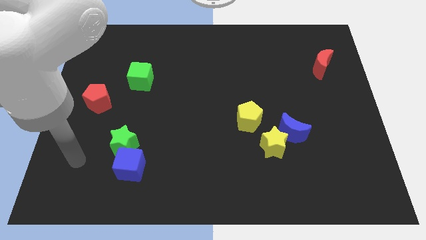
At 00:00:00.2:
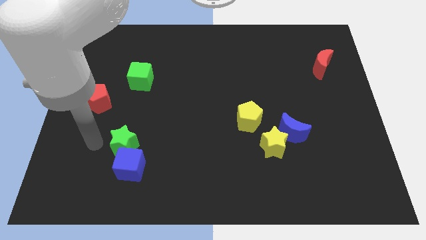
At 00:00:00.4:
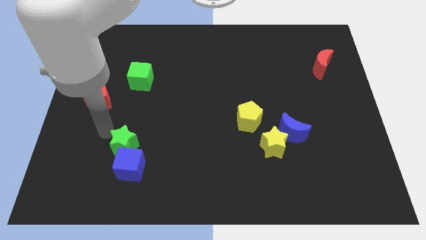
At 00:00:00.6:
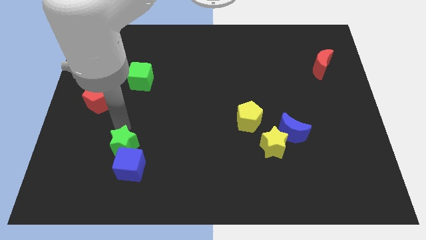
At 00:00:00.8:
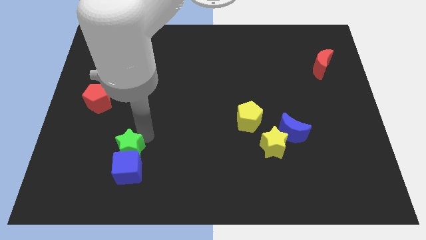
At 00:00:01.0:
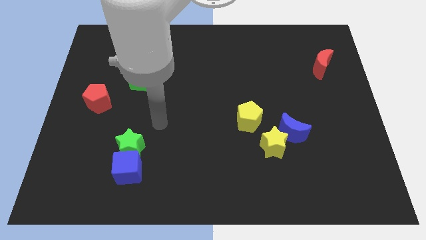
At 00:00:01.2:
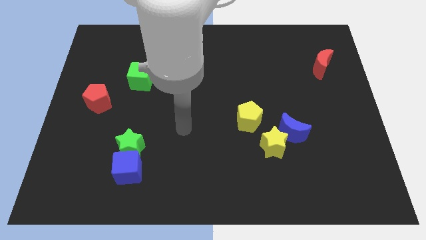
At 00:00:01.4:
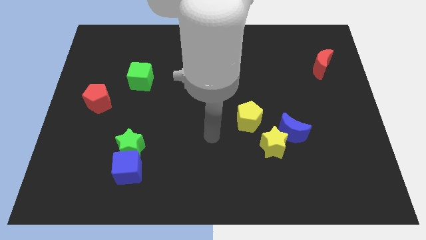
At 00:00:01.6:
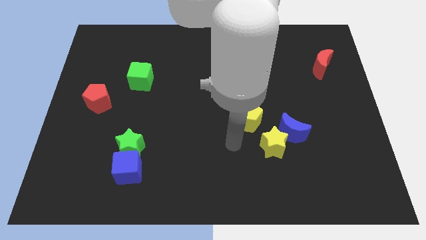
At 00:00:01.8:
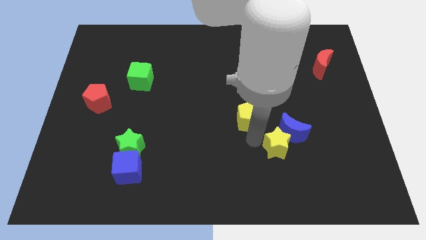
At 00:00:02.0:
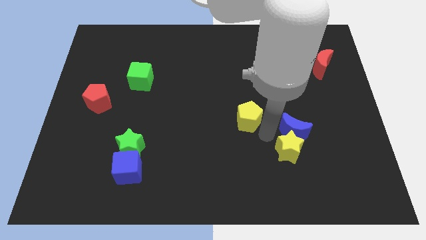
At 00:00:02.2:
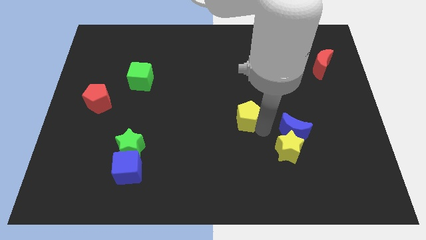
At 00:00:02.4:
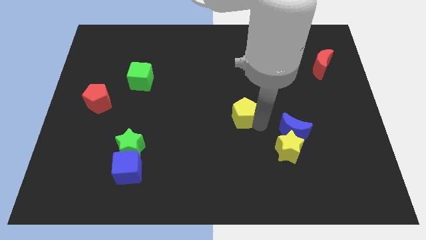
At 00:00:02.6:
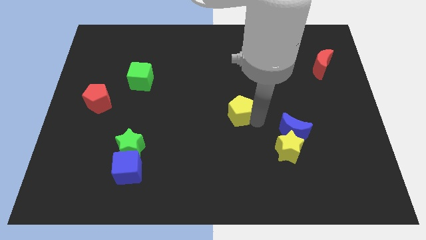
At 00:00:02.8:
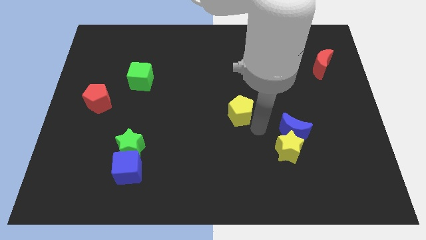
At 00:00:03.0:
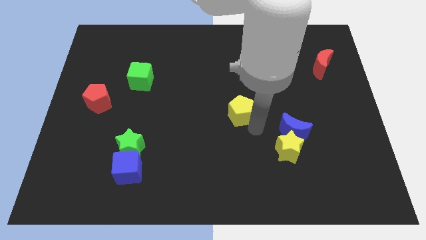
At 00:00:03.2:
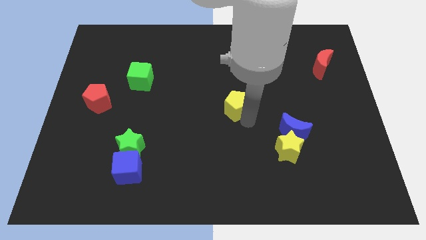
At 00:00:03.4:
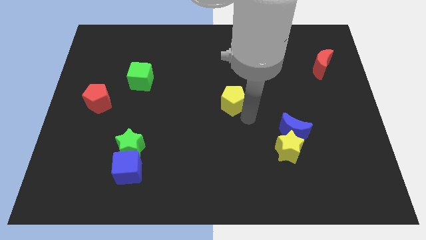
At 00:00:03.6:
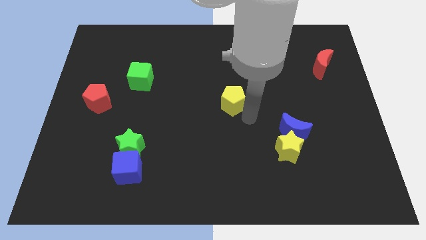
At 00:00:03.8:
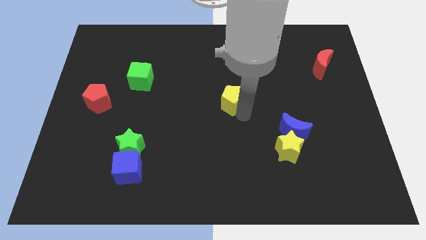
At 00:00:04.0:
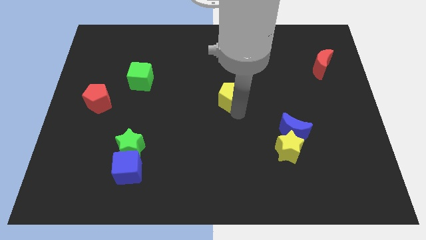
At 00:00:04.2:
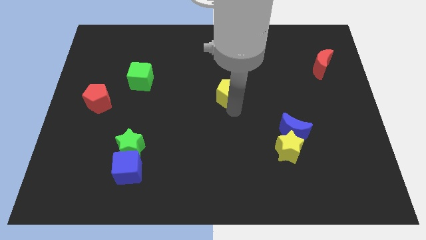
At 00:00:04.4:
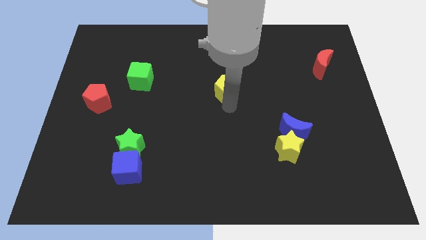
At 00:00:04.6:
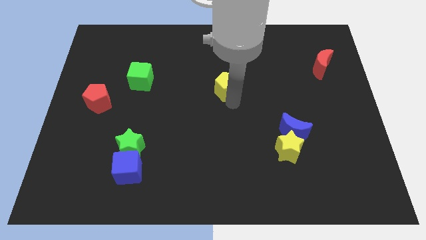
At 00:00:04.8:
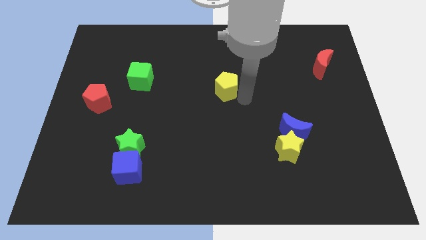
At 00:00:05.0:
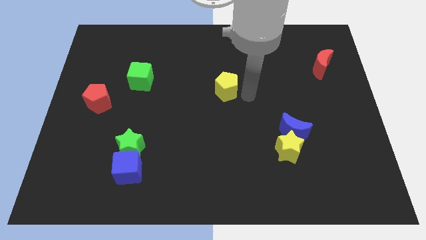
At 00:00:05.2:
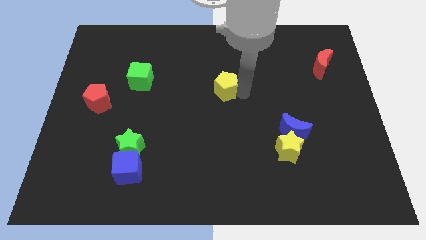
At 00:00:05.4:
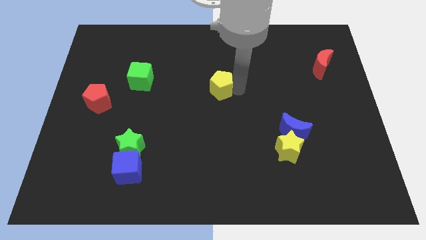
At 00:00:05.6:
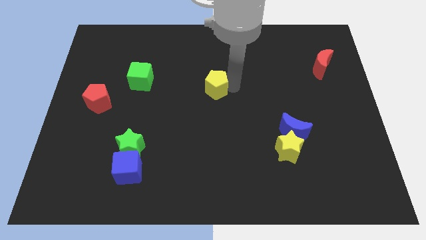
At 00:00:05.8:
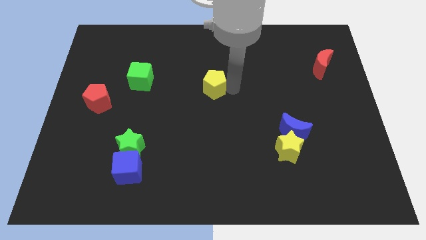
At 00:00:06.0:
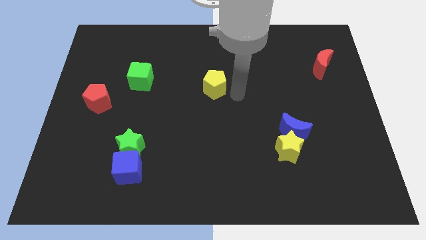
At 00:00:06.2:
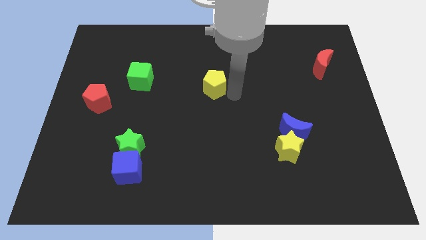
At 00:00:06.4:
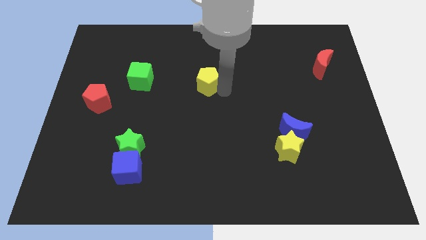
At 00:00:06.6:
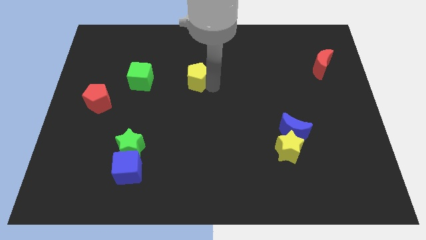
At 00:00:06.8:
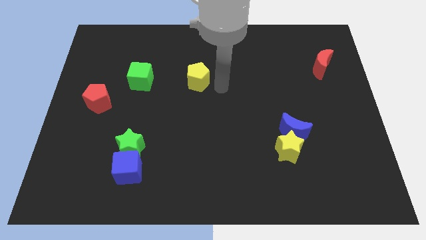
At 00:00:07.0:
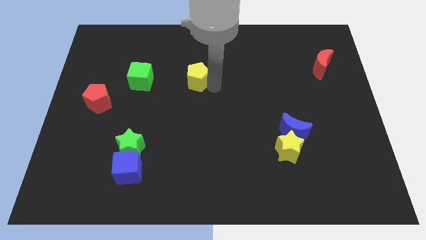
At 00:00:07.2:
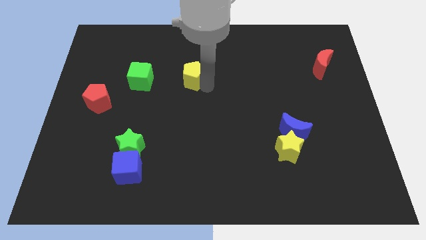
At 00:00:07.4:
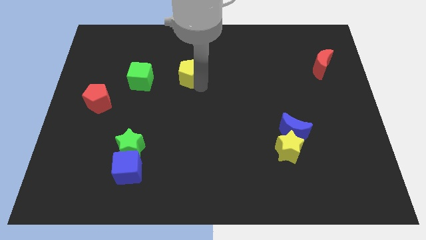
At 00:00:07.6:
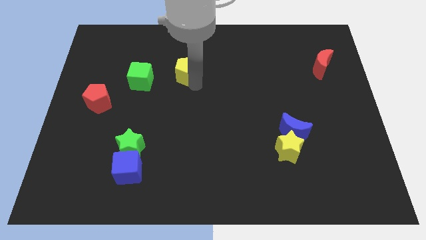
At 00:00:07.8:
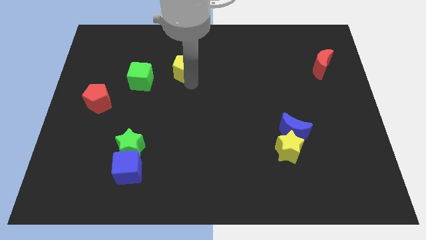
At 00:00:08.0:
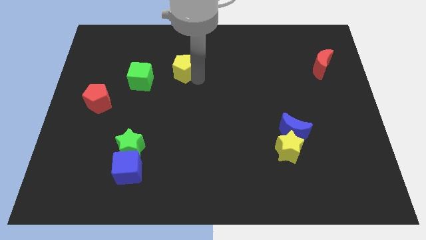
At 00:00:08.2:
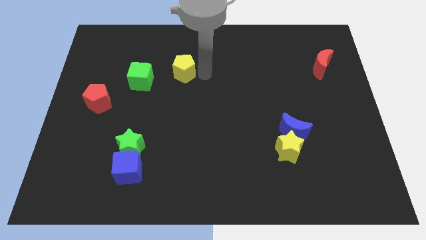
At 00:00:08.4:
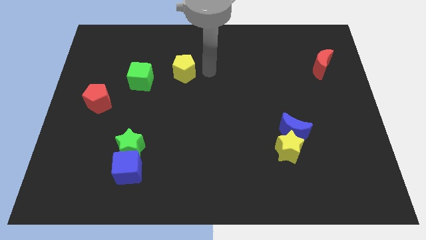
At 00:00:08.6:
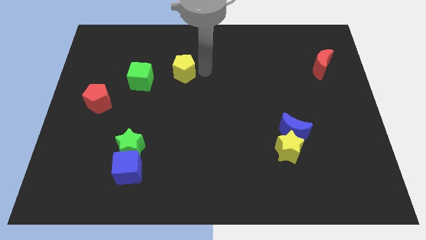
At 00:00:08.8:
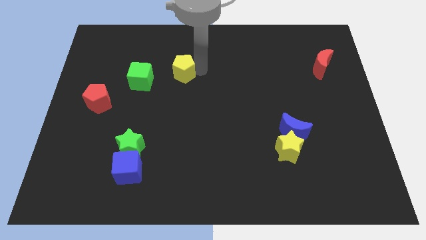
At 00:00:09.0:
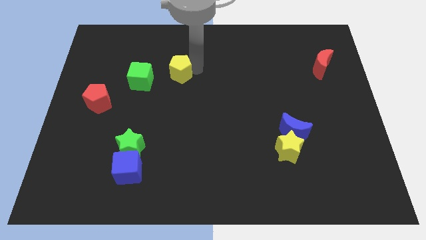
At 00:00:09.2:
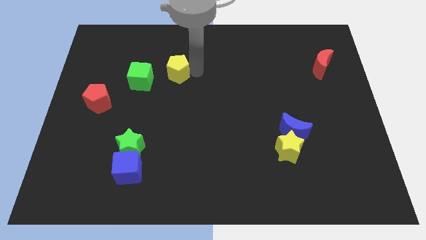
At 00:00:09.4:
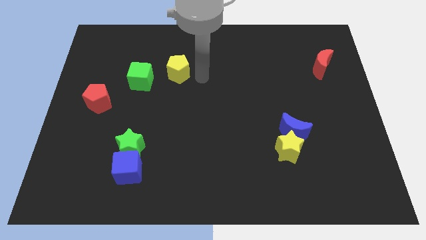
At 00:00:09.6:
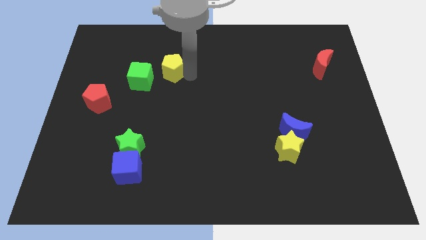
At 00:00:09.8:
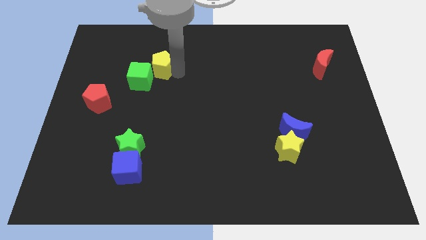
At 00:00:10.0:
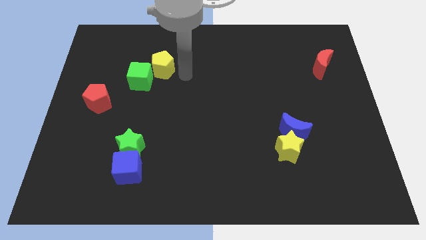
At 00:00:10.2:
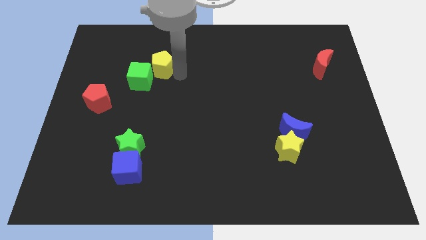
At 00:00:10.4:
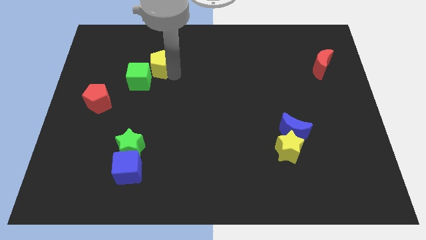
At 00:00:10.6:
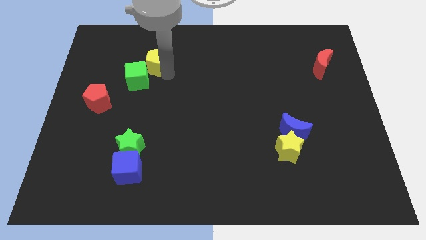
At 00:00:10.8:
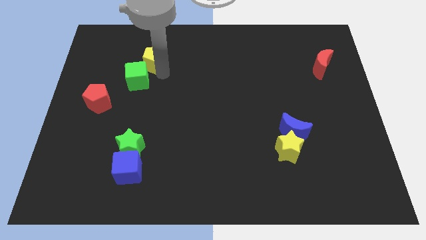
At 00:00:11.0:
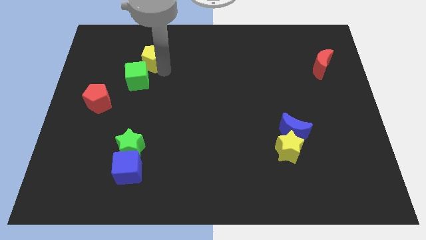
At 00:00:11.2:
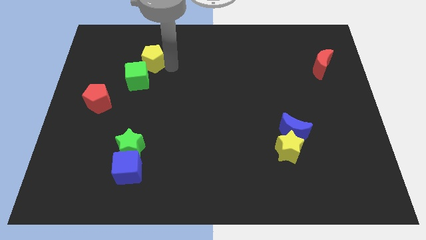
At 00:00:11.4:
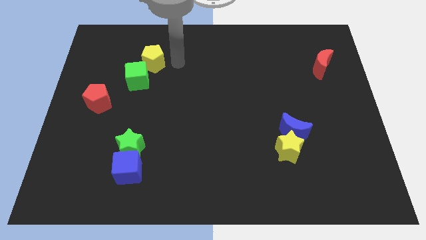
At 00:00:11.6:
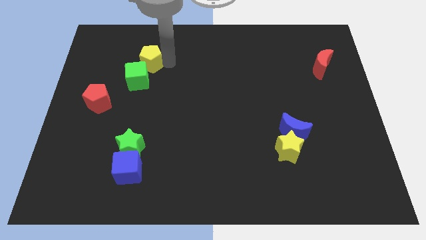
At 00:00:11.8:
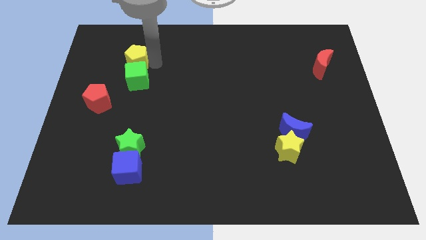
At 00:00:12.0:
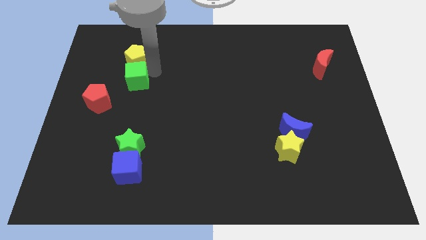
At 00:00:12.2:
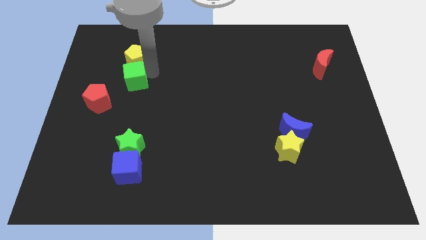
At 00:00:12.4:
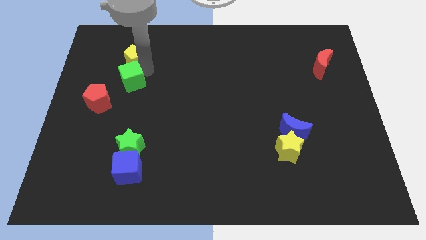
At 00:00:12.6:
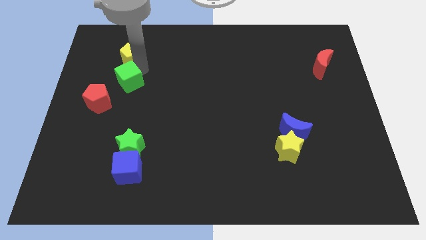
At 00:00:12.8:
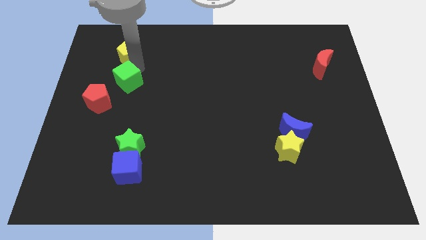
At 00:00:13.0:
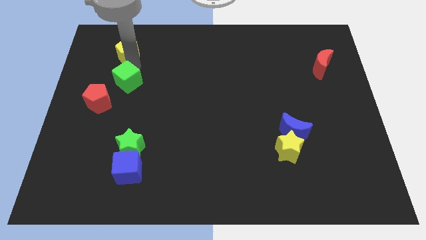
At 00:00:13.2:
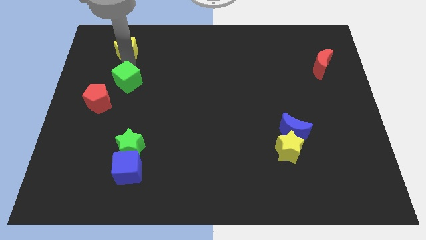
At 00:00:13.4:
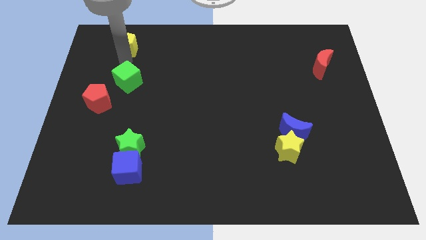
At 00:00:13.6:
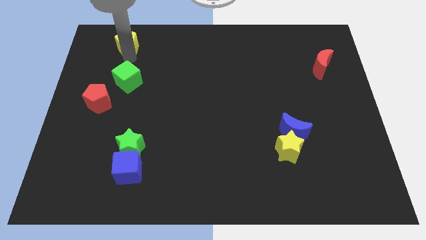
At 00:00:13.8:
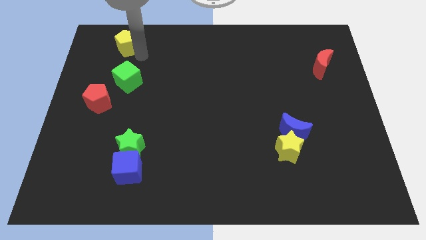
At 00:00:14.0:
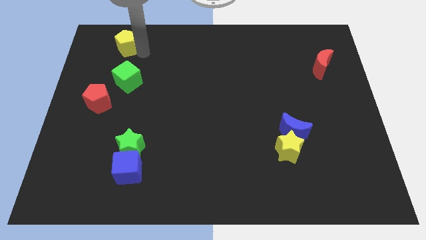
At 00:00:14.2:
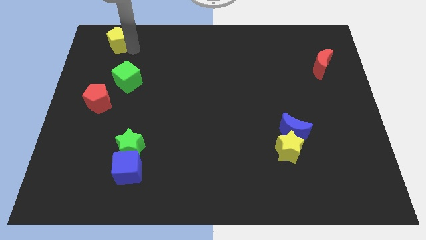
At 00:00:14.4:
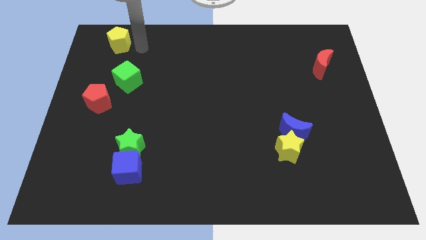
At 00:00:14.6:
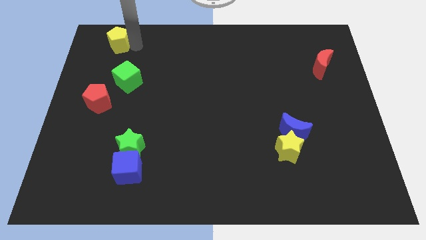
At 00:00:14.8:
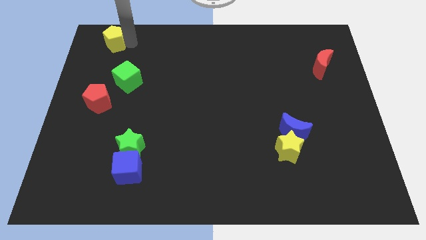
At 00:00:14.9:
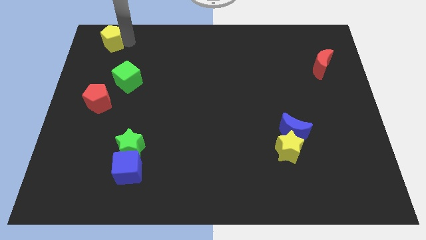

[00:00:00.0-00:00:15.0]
push the yellow pentagon to the top left corner
